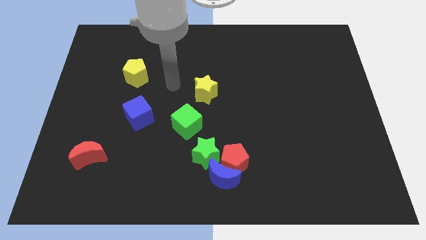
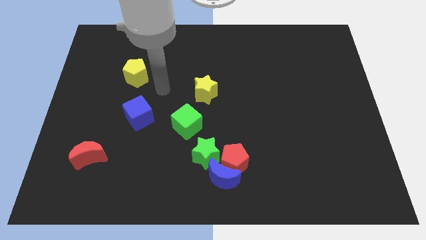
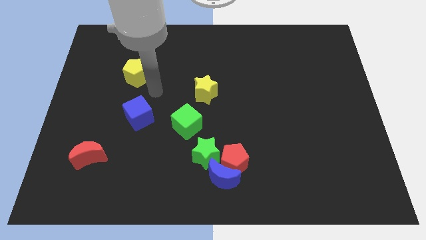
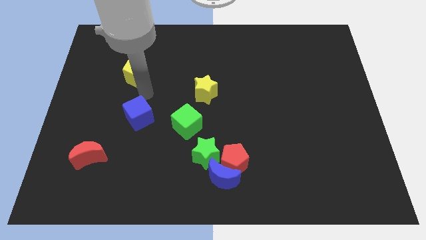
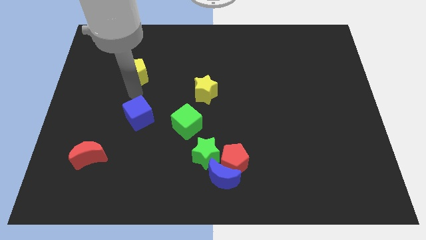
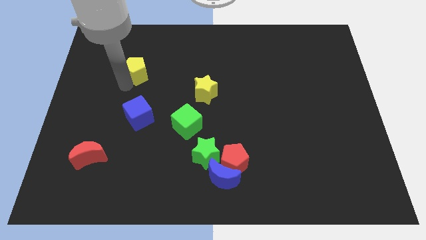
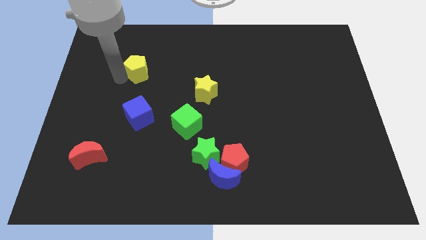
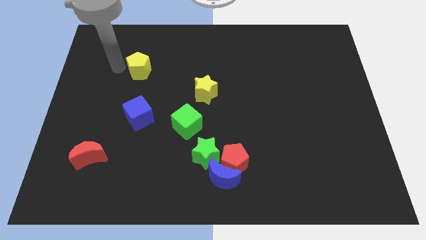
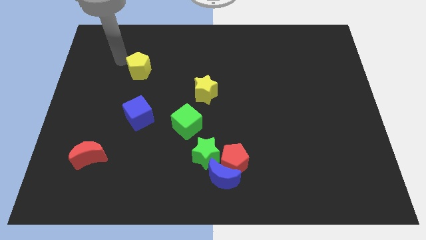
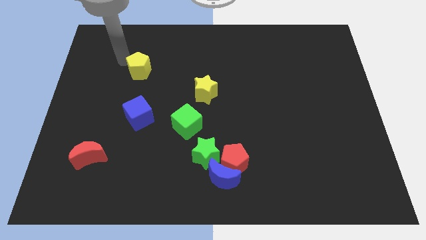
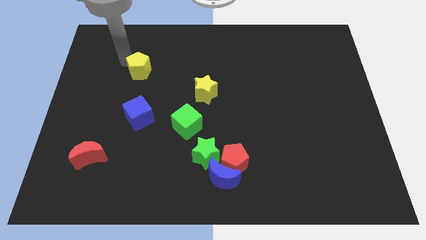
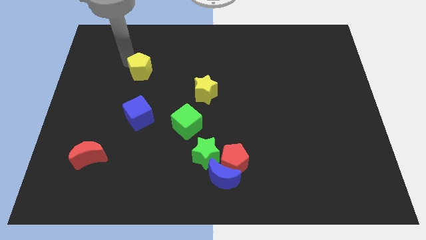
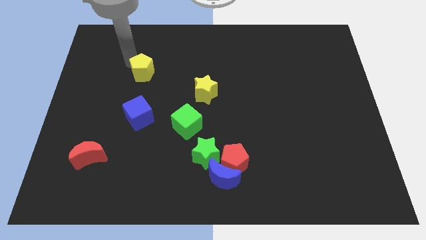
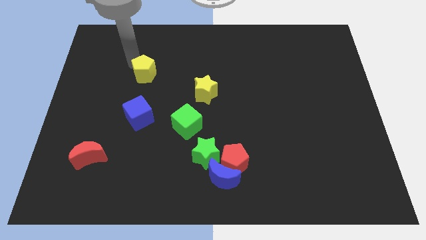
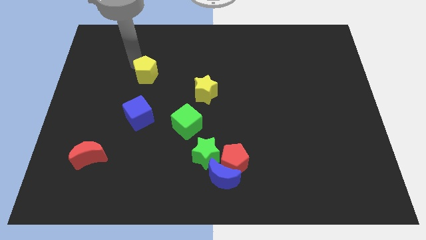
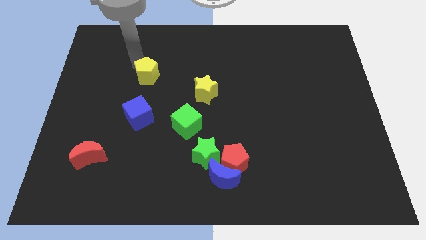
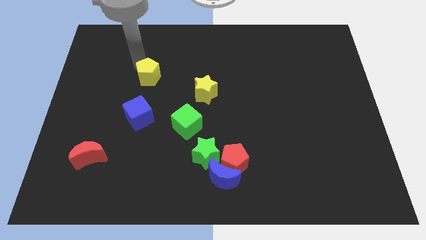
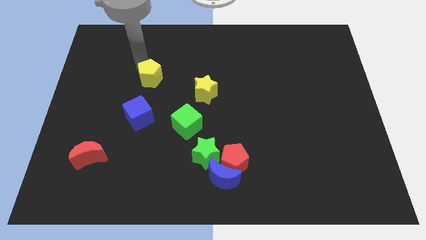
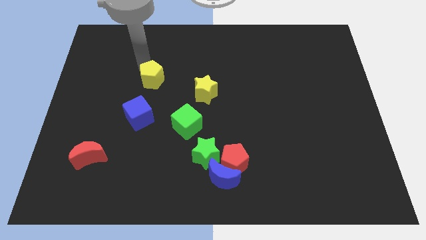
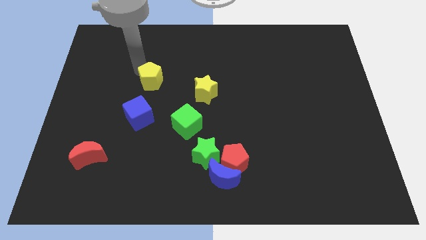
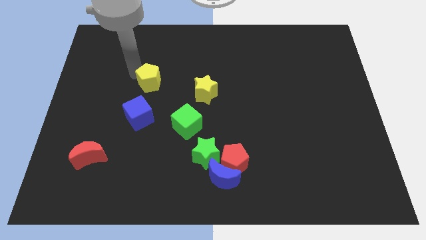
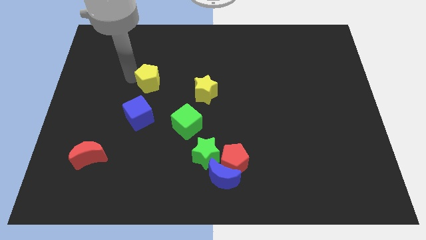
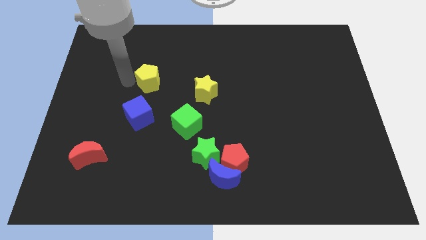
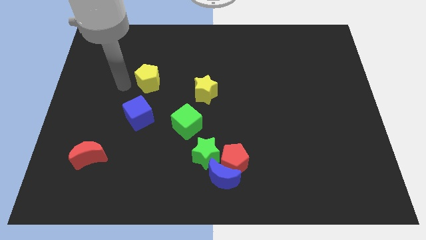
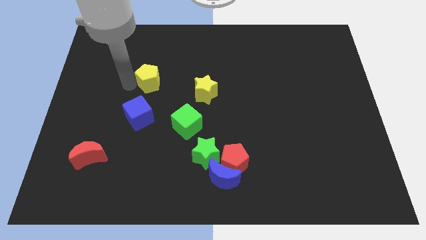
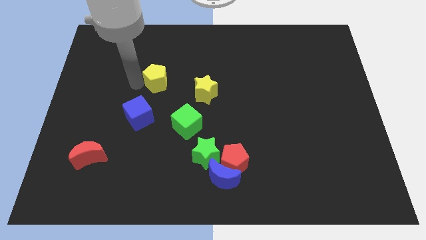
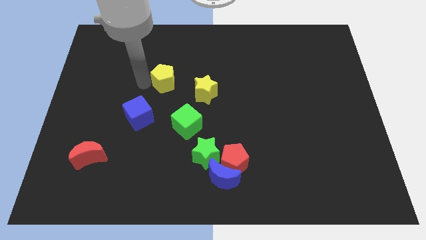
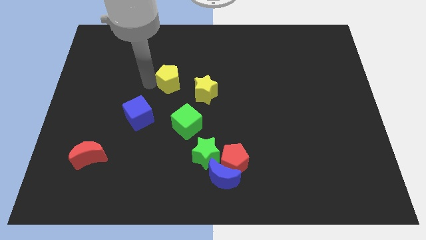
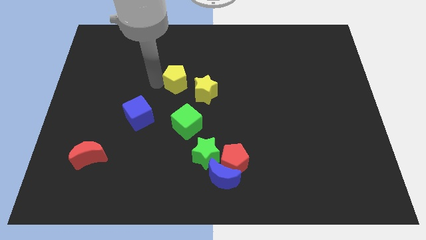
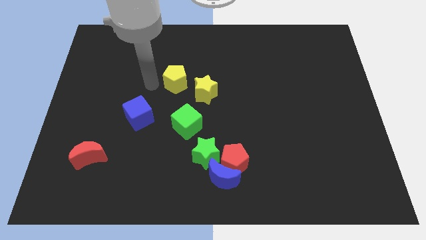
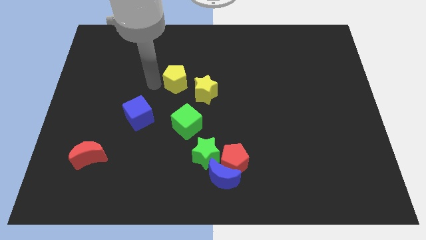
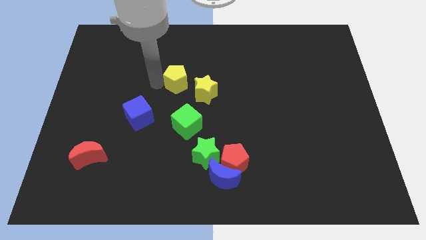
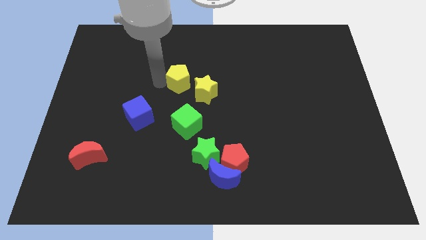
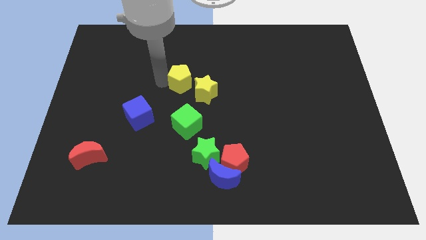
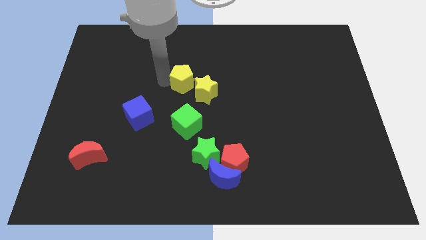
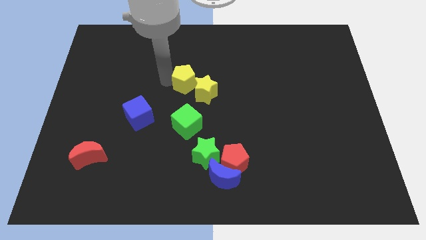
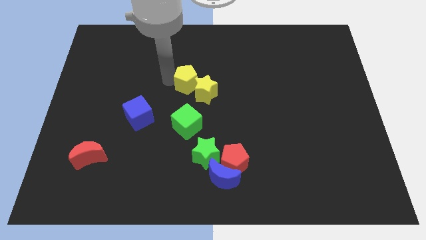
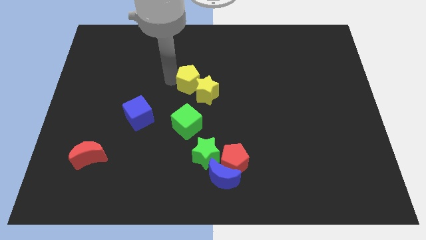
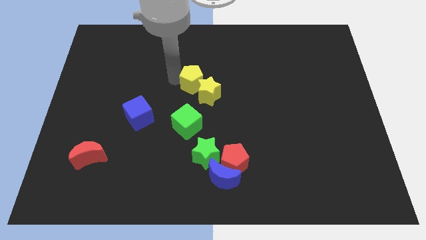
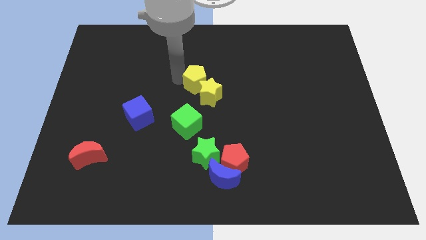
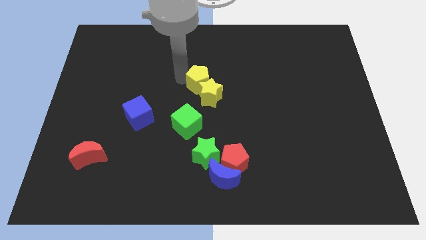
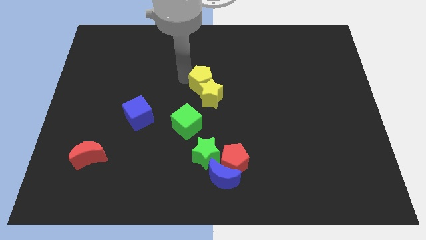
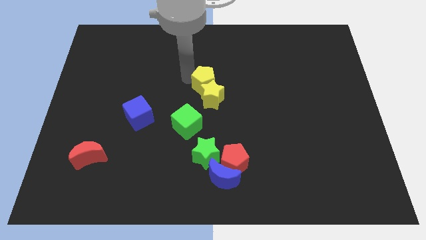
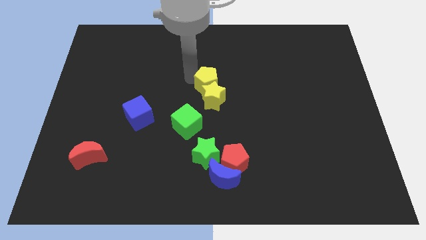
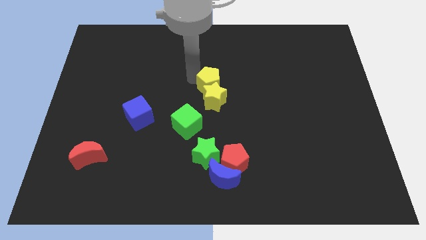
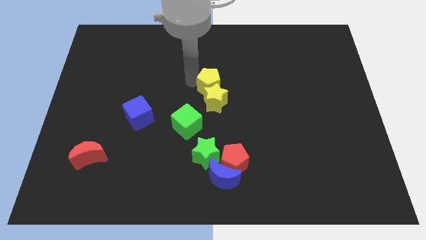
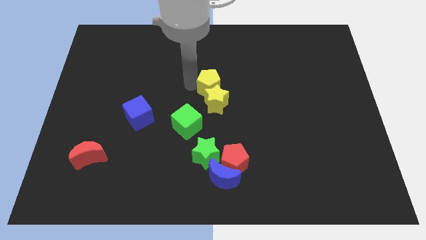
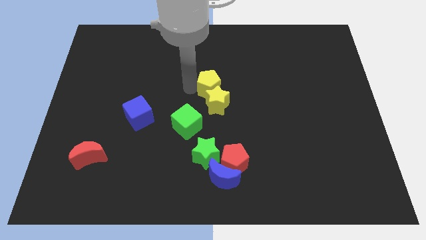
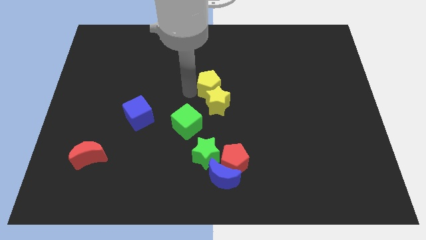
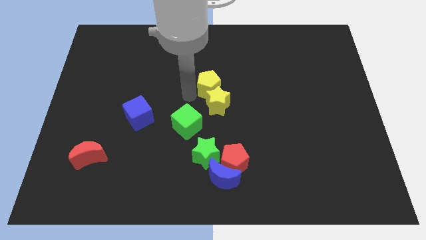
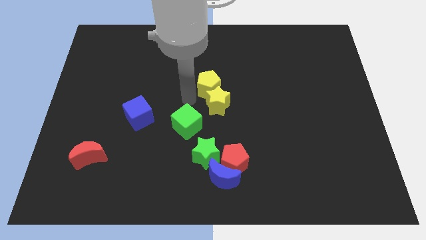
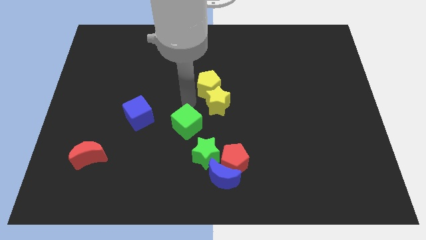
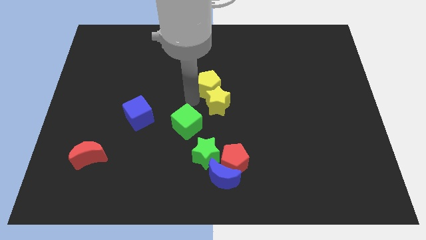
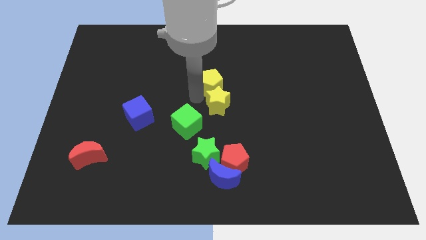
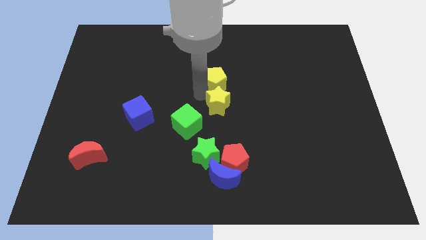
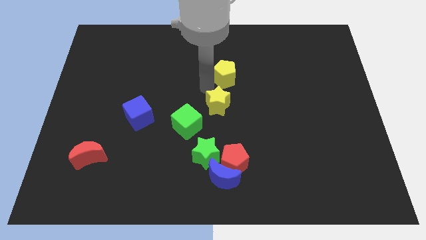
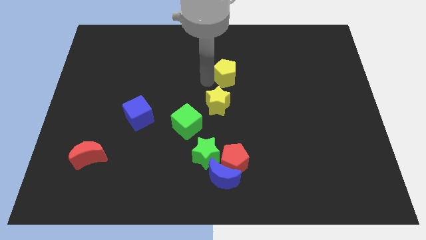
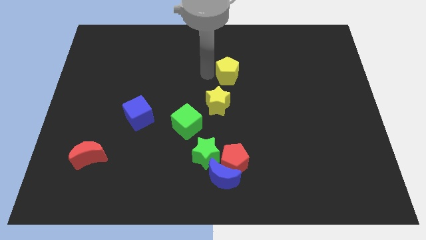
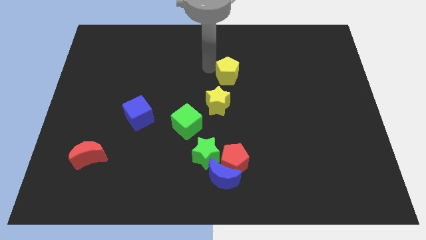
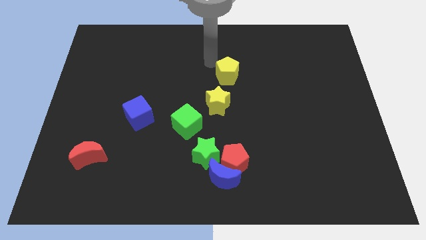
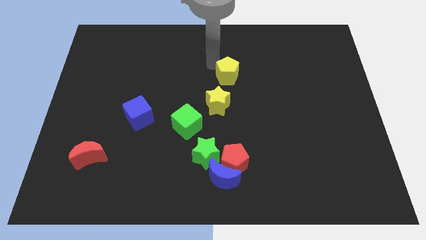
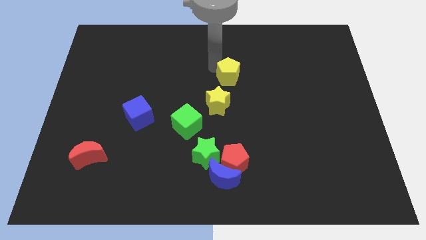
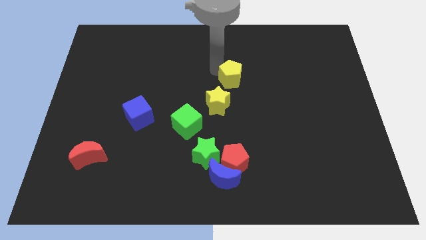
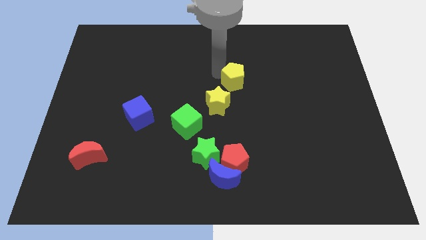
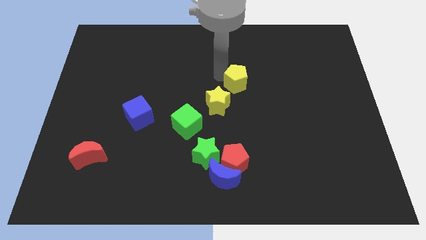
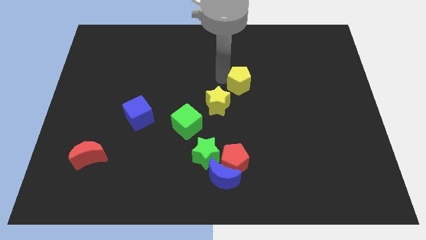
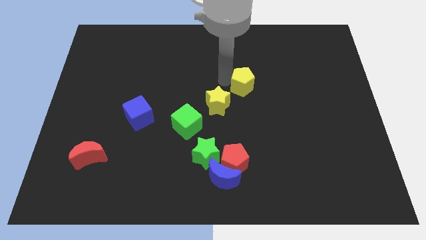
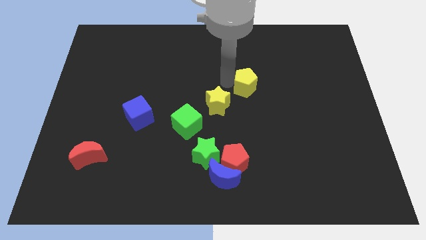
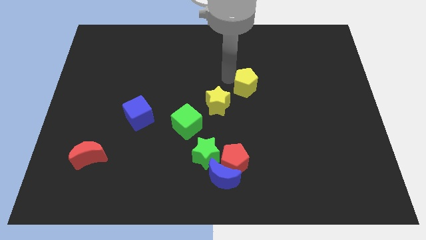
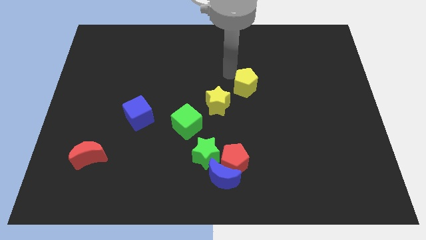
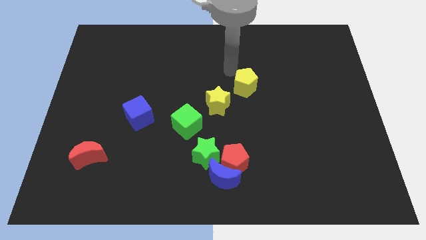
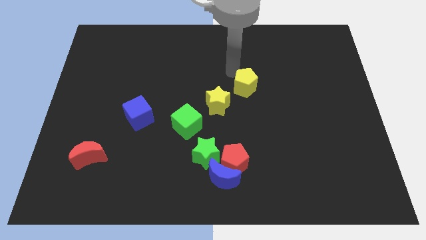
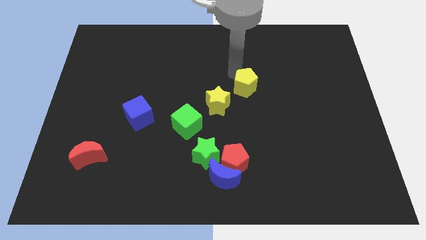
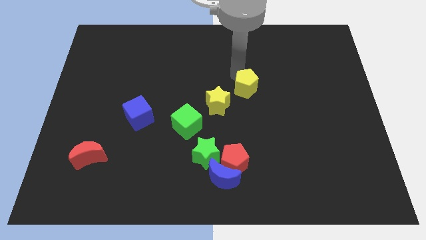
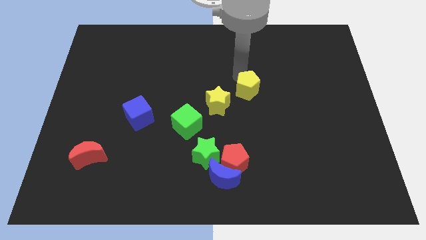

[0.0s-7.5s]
put the yellow pentagon to the right of the yellow star
